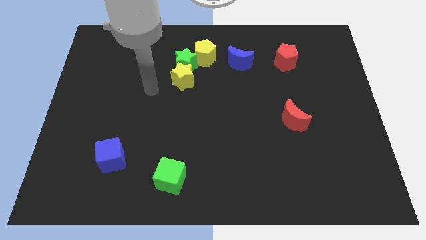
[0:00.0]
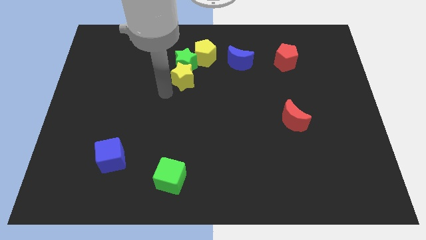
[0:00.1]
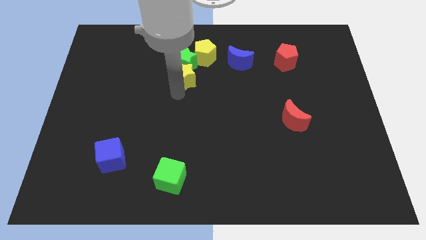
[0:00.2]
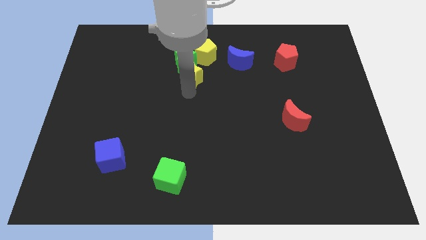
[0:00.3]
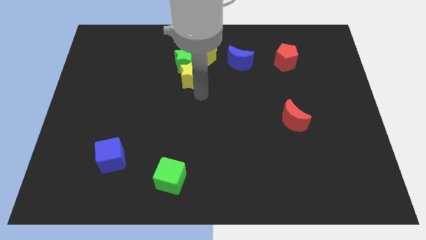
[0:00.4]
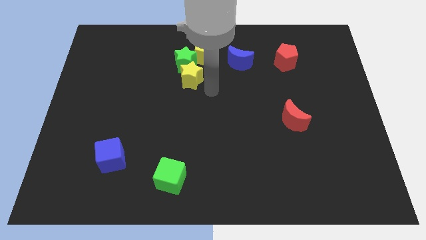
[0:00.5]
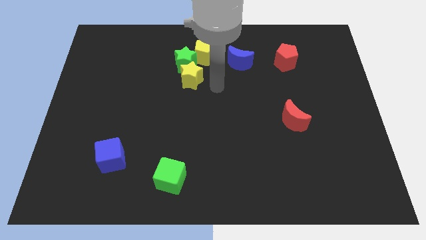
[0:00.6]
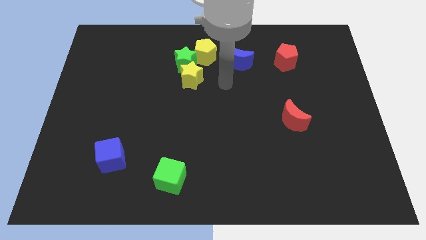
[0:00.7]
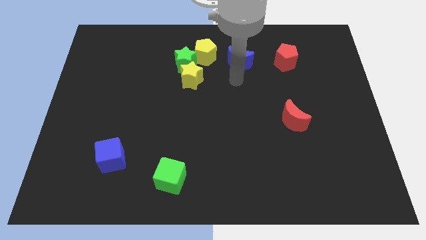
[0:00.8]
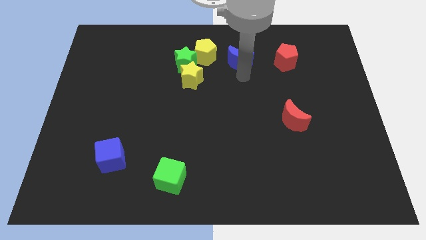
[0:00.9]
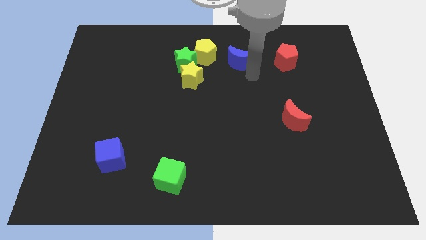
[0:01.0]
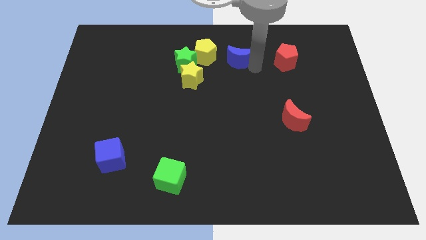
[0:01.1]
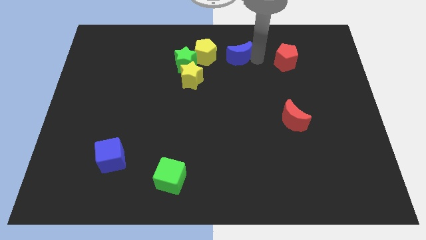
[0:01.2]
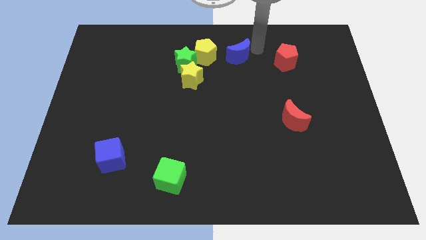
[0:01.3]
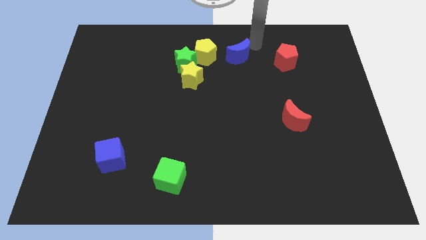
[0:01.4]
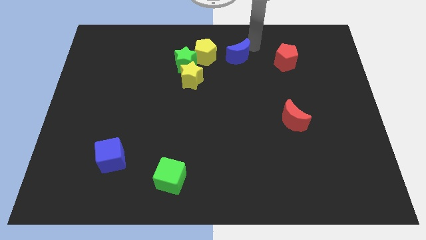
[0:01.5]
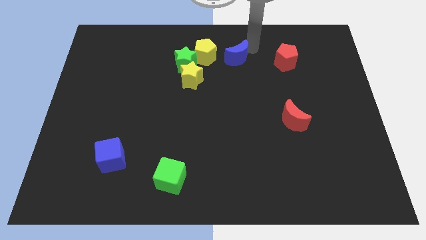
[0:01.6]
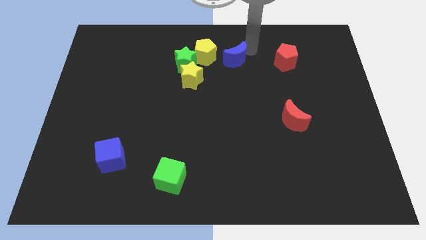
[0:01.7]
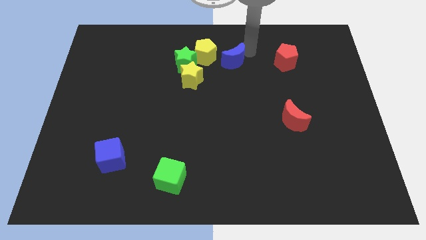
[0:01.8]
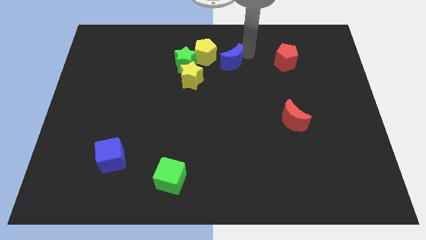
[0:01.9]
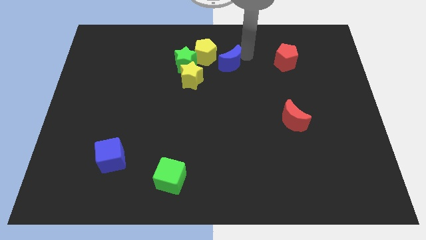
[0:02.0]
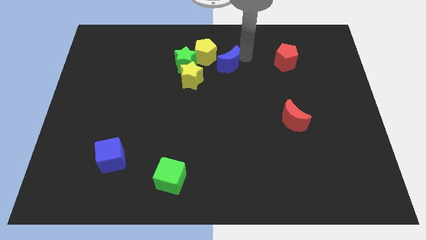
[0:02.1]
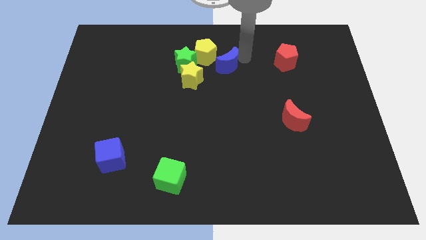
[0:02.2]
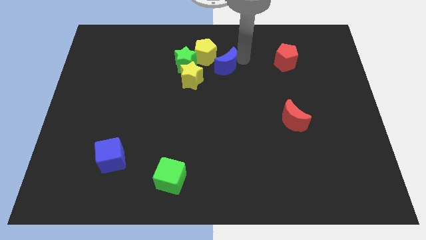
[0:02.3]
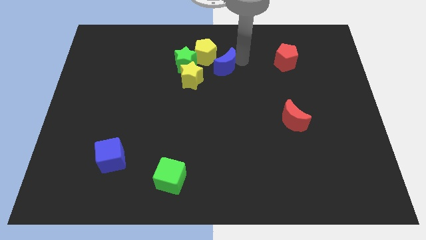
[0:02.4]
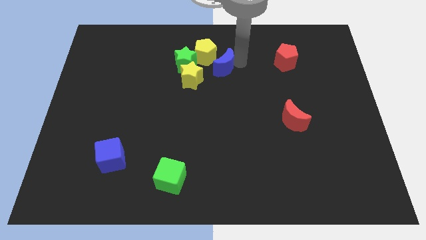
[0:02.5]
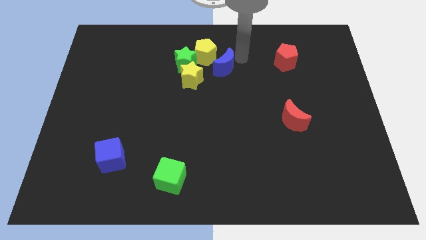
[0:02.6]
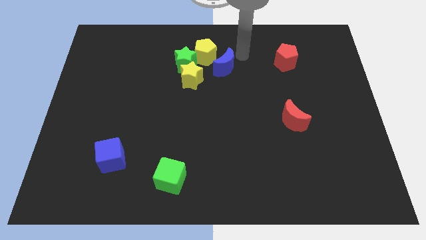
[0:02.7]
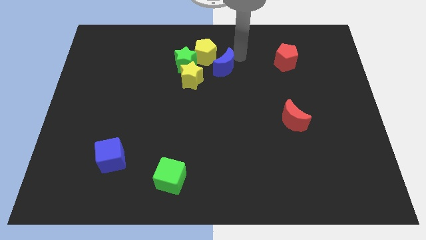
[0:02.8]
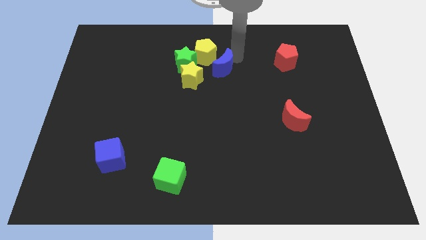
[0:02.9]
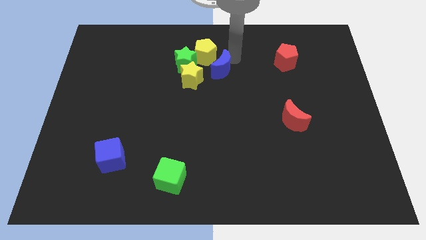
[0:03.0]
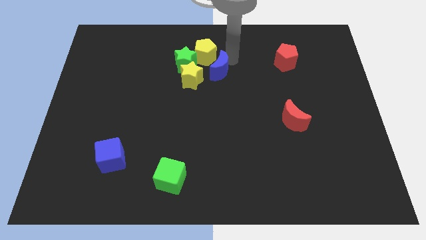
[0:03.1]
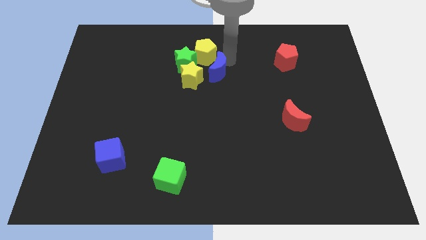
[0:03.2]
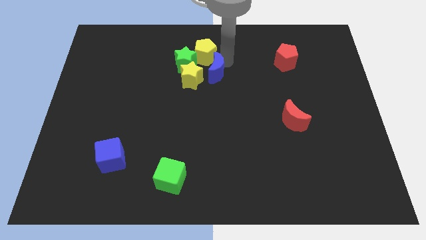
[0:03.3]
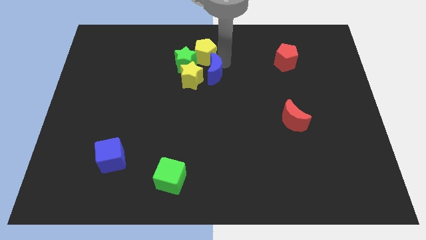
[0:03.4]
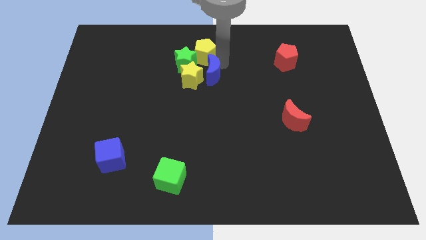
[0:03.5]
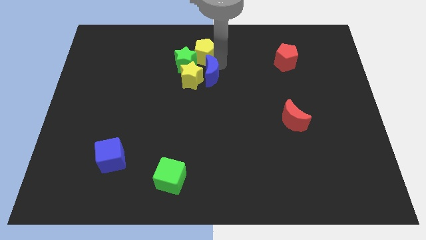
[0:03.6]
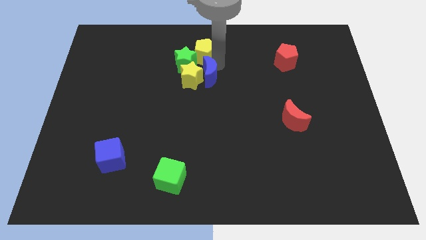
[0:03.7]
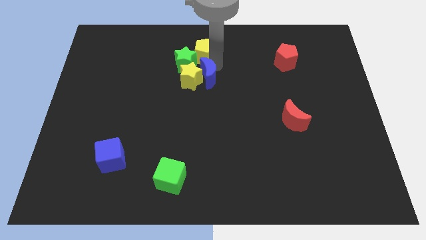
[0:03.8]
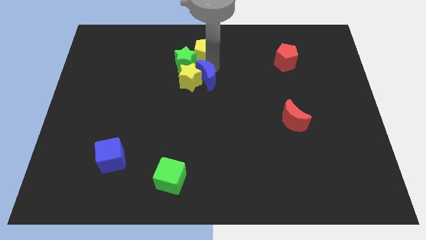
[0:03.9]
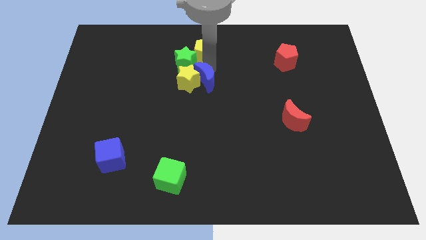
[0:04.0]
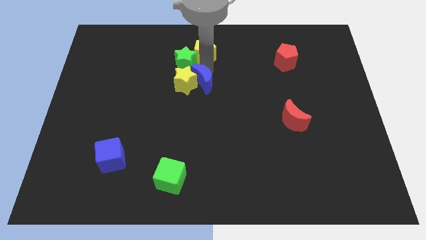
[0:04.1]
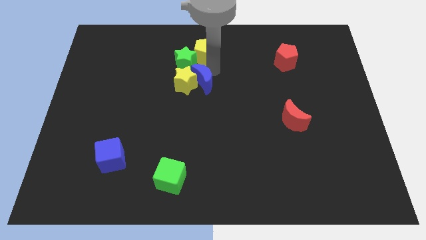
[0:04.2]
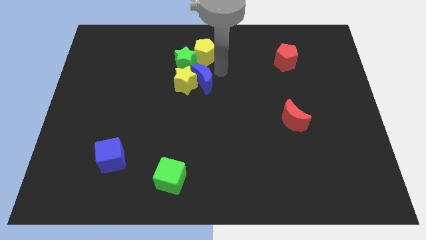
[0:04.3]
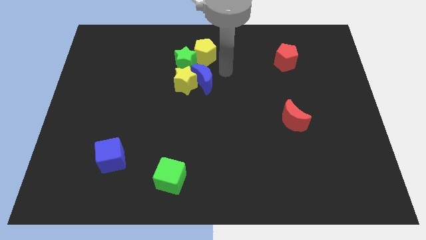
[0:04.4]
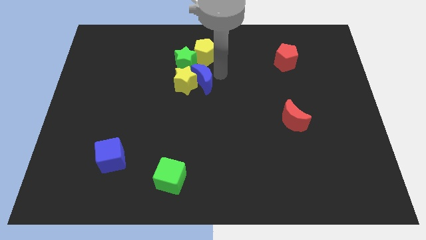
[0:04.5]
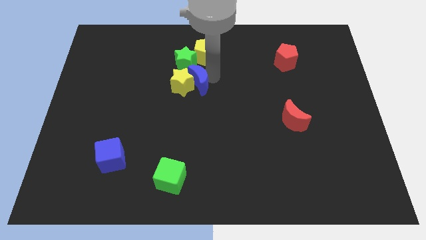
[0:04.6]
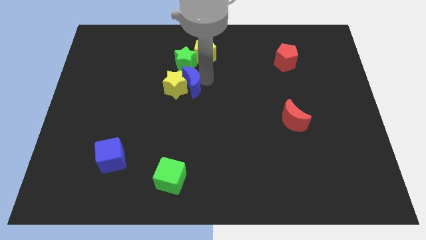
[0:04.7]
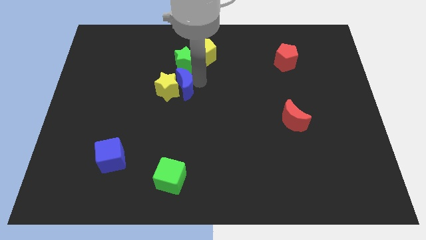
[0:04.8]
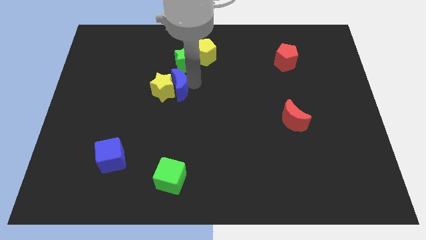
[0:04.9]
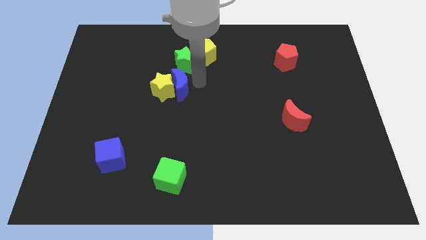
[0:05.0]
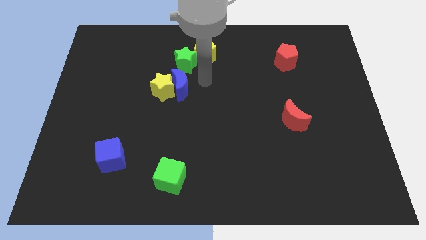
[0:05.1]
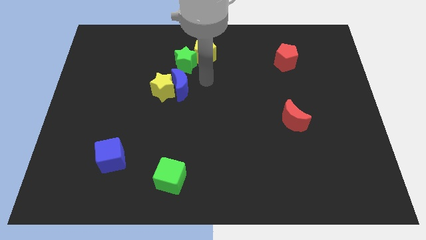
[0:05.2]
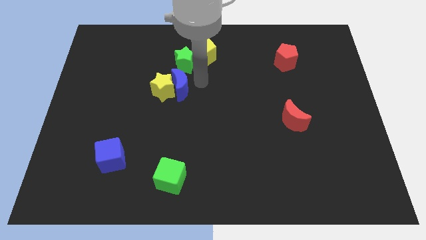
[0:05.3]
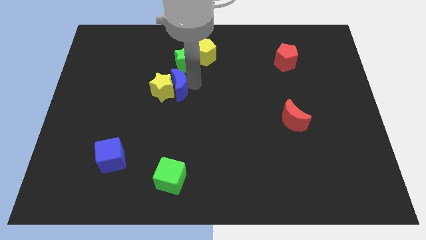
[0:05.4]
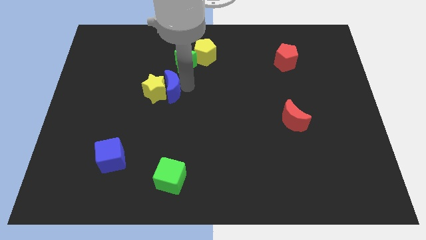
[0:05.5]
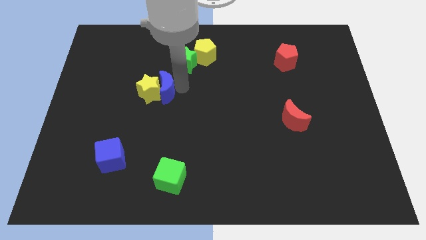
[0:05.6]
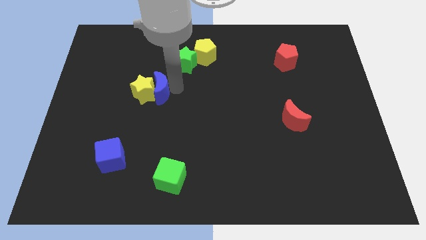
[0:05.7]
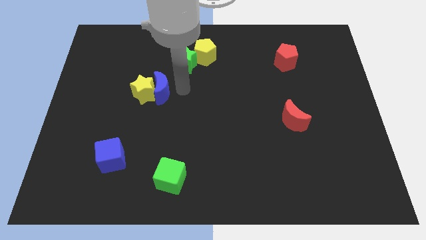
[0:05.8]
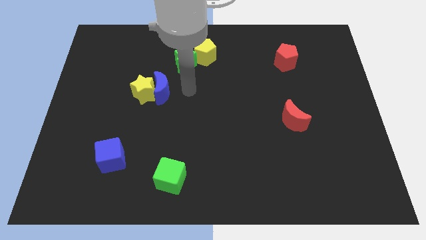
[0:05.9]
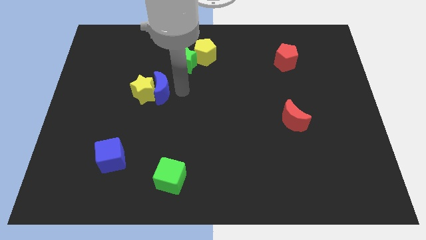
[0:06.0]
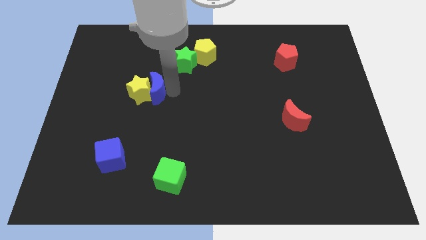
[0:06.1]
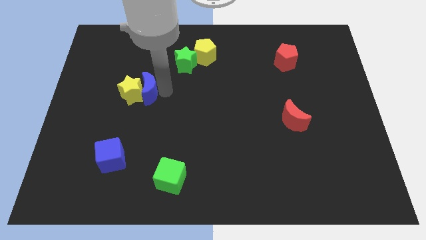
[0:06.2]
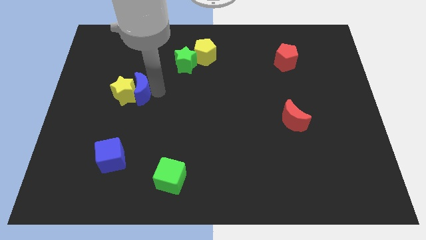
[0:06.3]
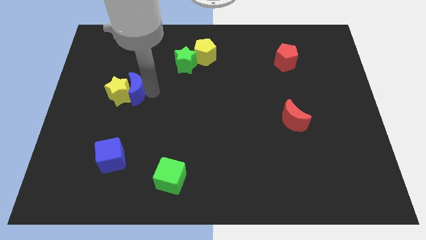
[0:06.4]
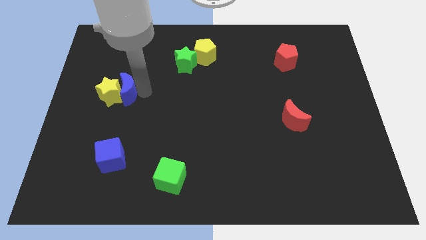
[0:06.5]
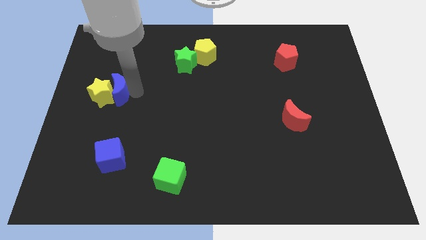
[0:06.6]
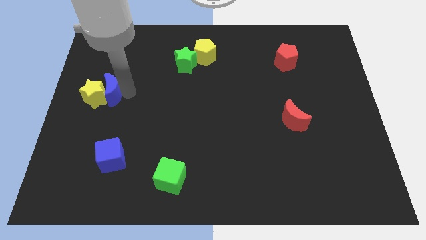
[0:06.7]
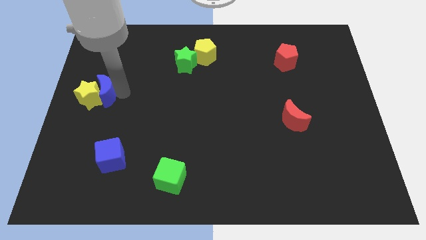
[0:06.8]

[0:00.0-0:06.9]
push the blue moon to the center left
